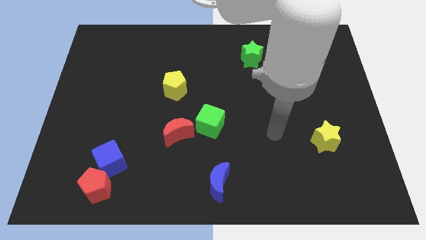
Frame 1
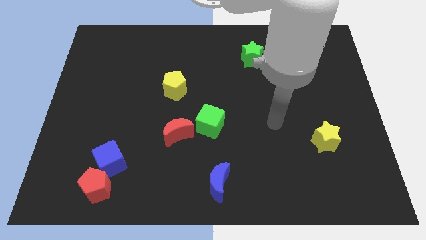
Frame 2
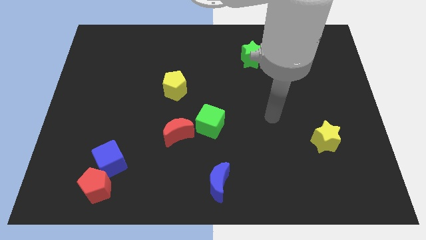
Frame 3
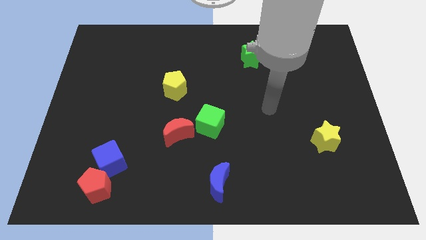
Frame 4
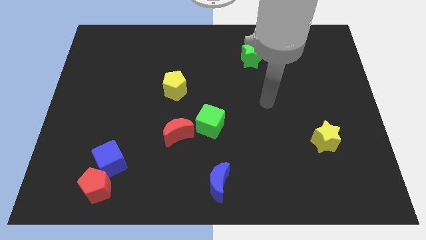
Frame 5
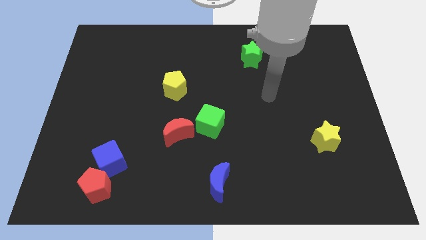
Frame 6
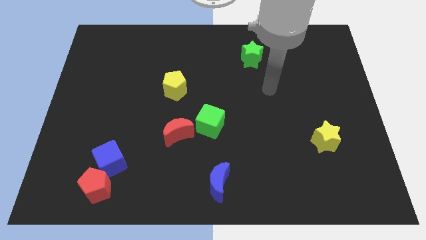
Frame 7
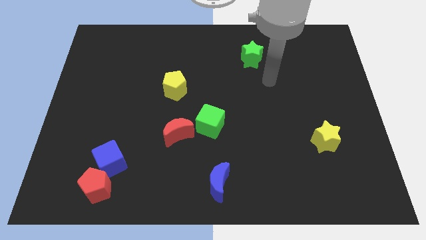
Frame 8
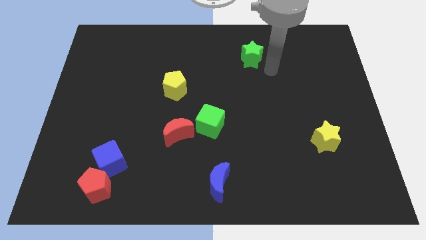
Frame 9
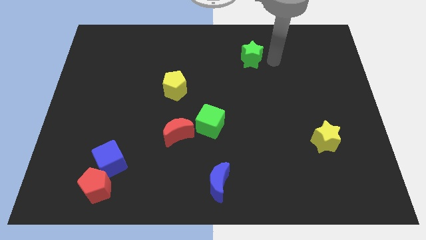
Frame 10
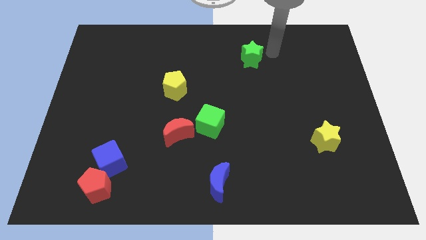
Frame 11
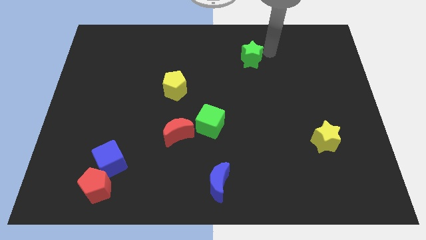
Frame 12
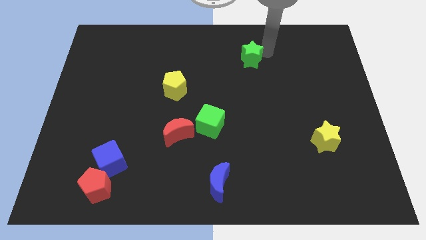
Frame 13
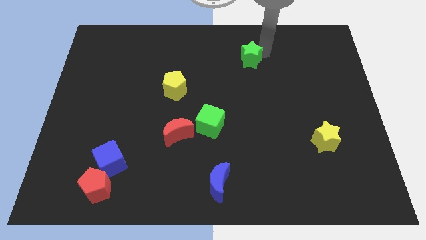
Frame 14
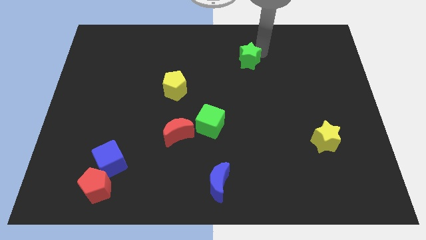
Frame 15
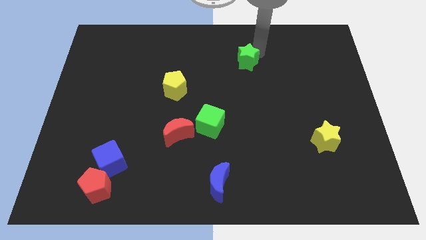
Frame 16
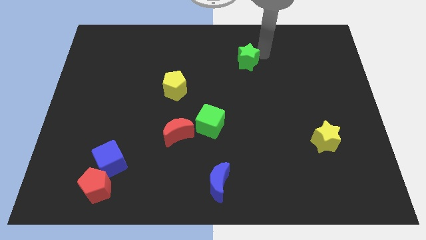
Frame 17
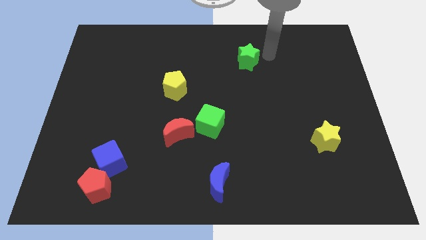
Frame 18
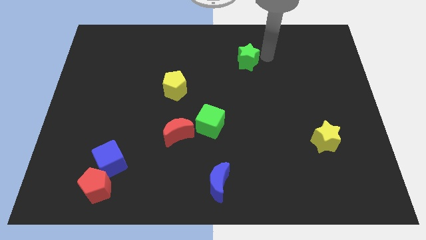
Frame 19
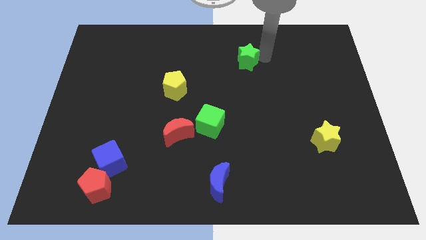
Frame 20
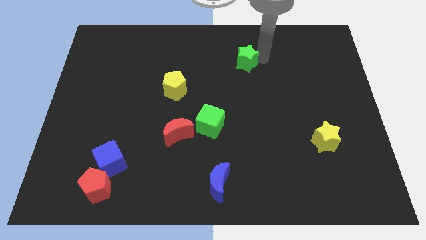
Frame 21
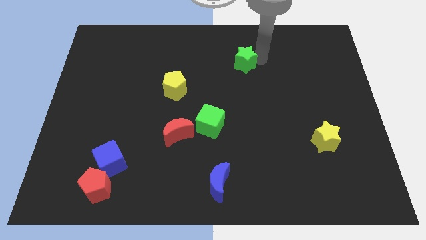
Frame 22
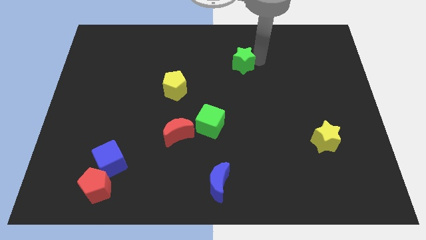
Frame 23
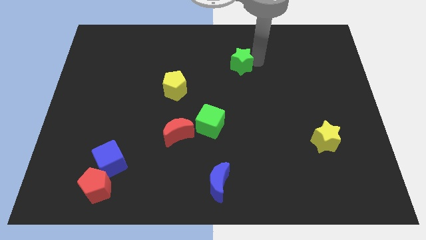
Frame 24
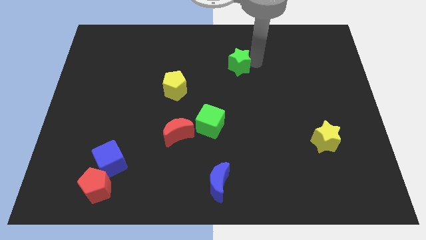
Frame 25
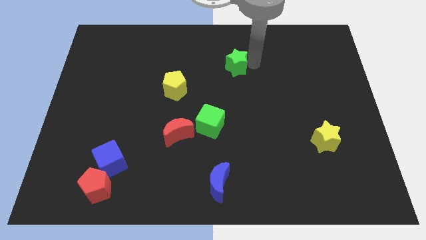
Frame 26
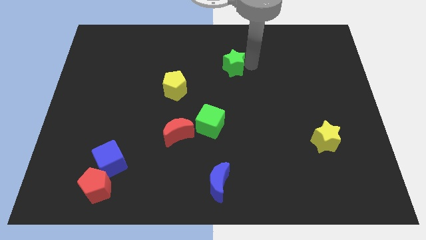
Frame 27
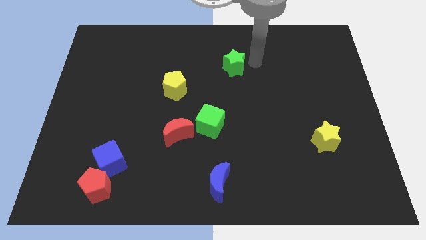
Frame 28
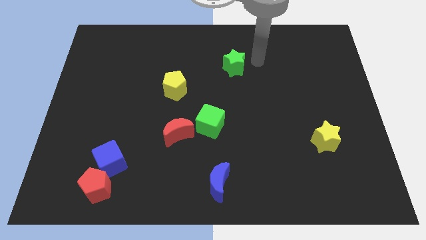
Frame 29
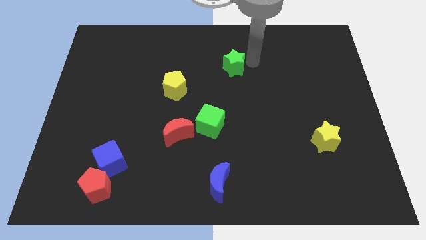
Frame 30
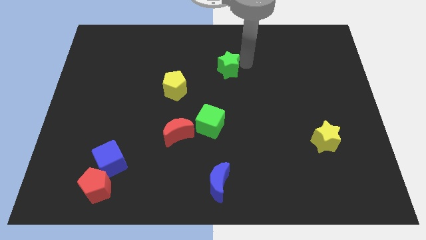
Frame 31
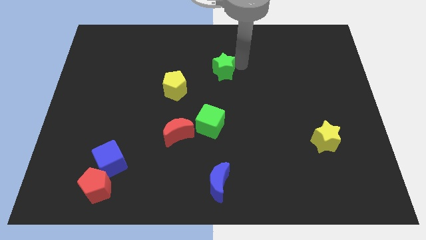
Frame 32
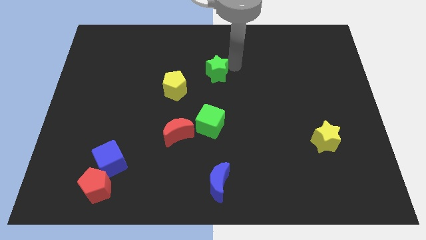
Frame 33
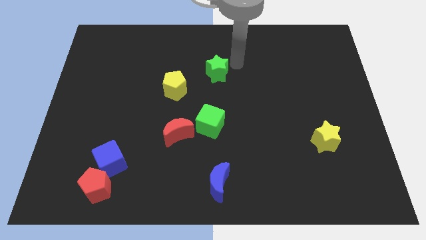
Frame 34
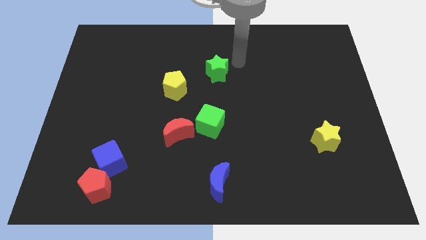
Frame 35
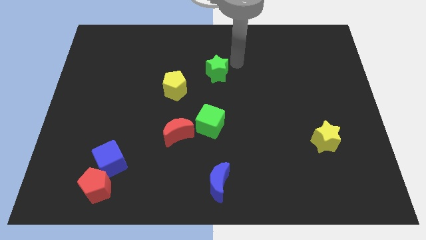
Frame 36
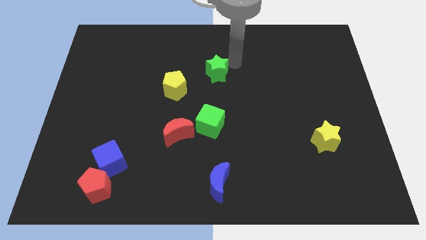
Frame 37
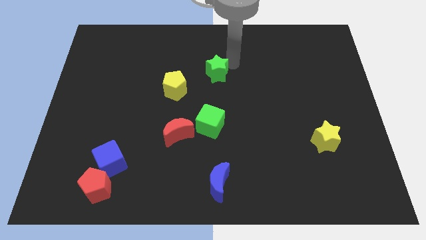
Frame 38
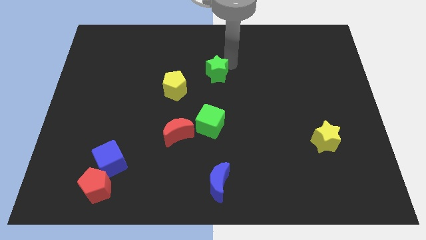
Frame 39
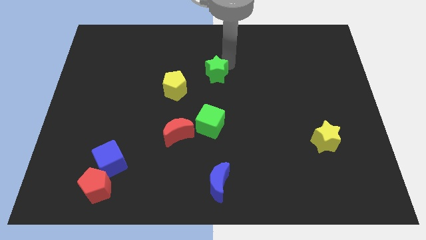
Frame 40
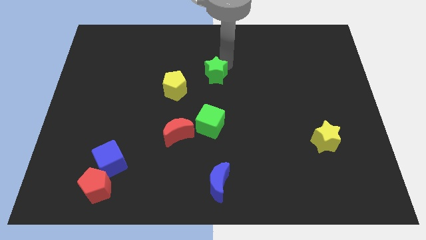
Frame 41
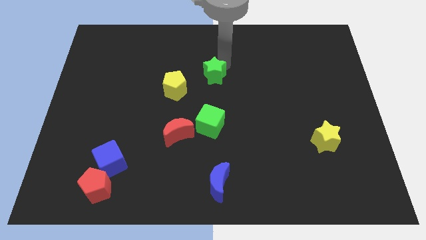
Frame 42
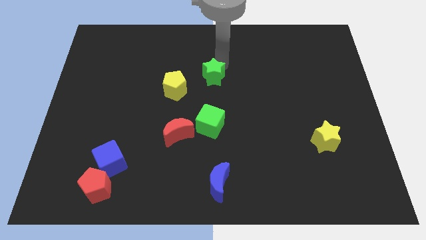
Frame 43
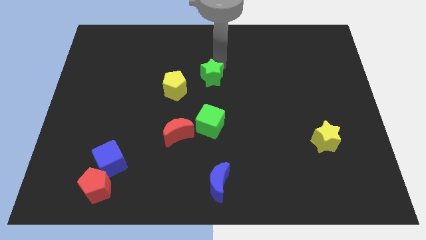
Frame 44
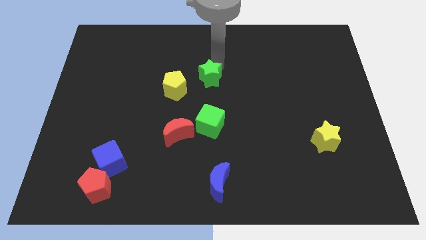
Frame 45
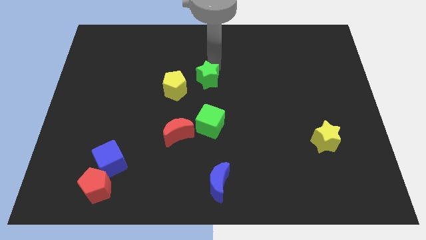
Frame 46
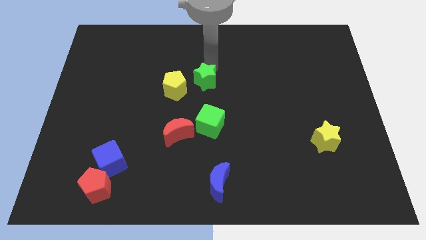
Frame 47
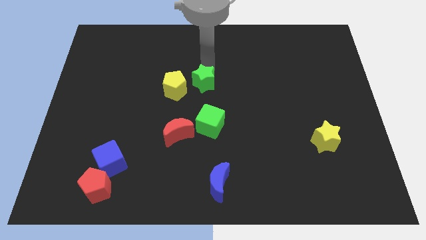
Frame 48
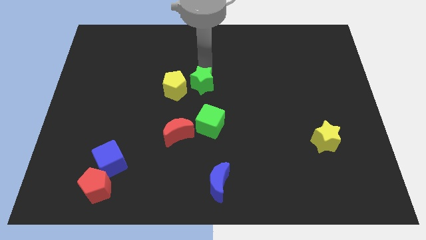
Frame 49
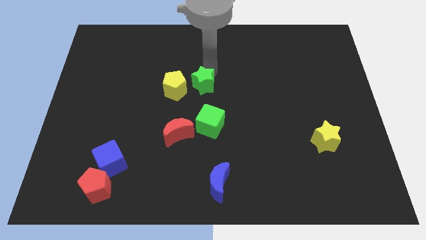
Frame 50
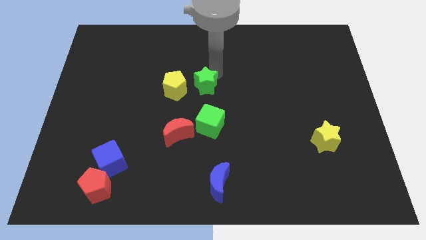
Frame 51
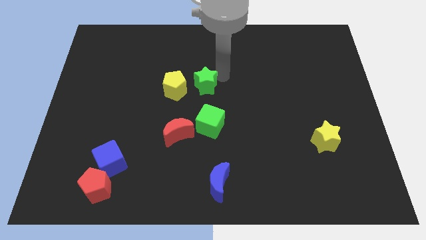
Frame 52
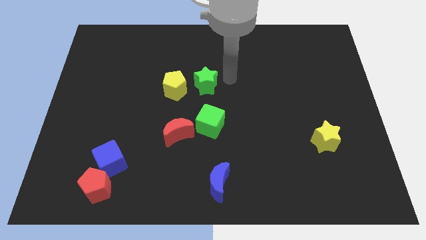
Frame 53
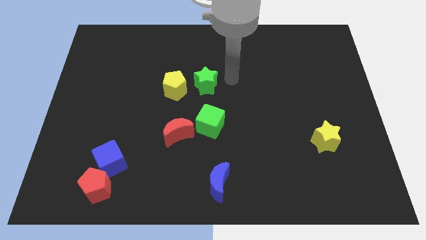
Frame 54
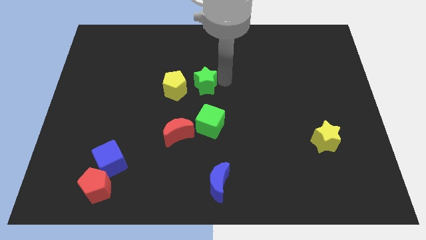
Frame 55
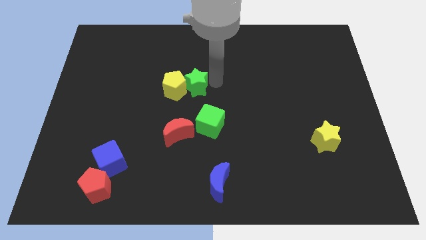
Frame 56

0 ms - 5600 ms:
slide the green star towards the yellow pentagon

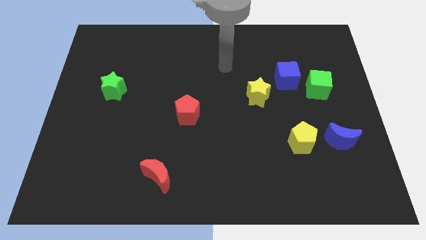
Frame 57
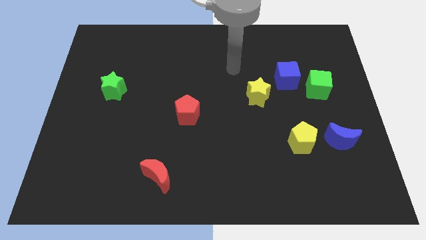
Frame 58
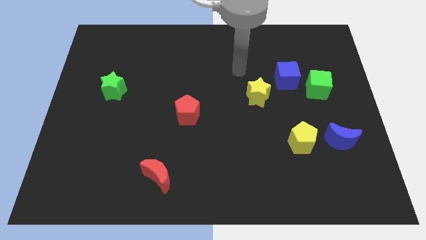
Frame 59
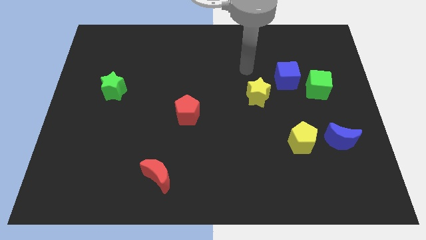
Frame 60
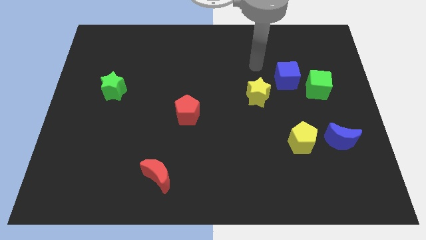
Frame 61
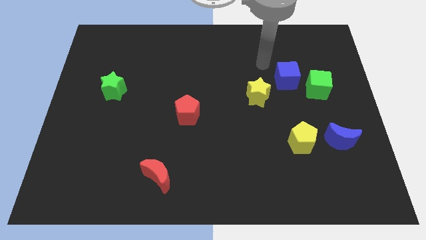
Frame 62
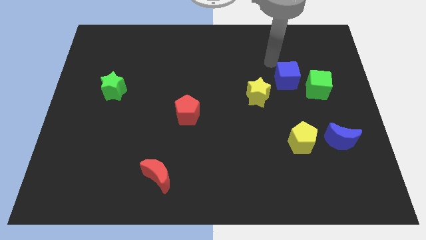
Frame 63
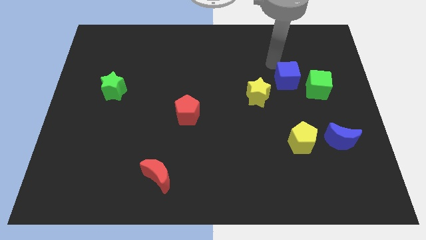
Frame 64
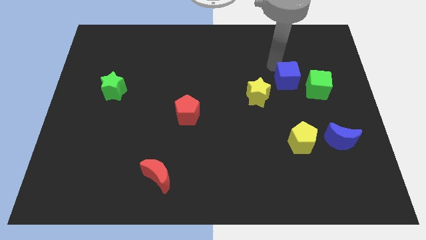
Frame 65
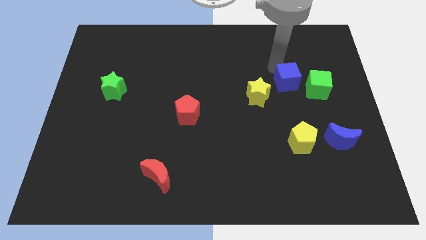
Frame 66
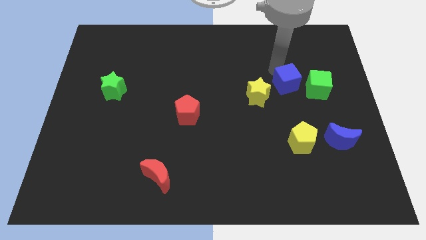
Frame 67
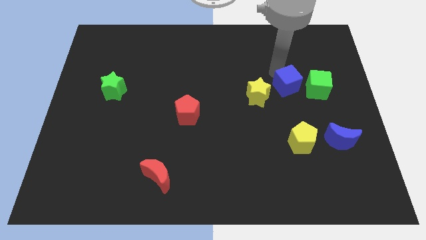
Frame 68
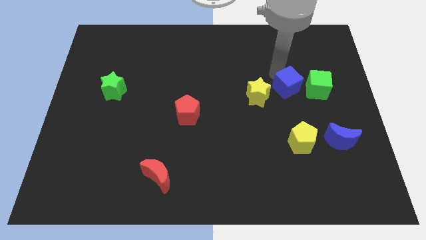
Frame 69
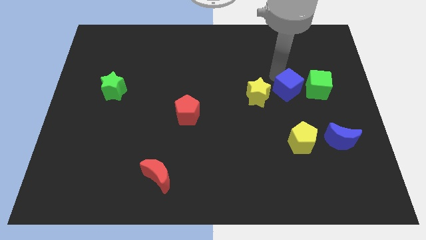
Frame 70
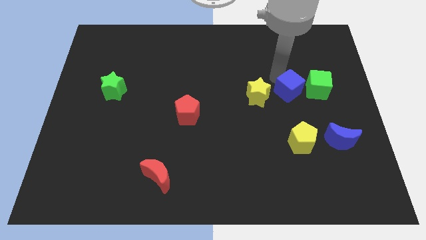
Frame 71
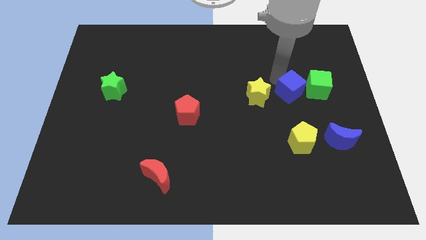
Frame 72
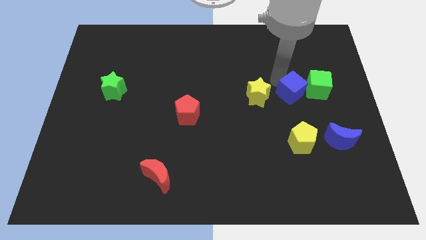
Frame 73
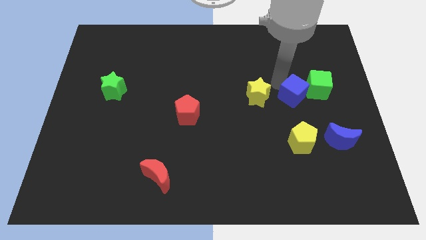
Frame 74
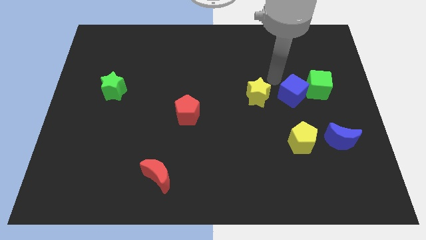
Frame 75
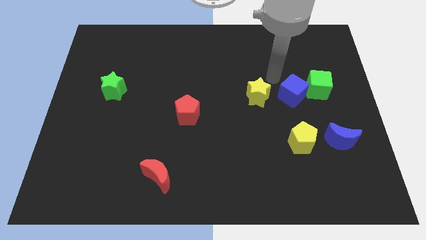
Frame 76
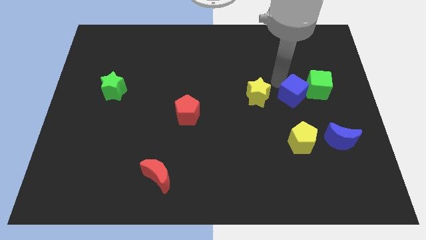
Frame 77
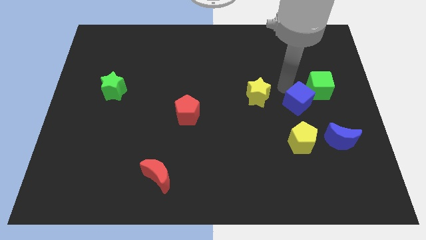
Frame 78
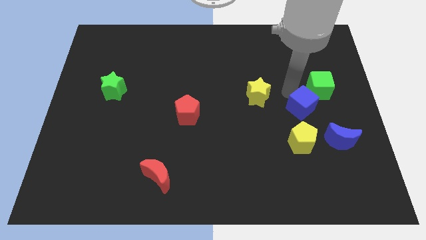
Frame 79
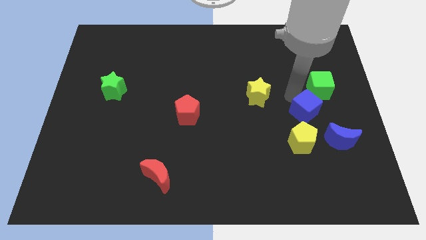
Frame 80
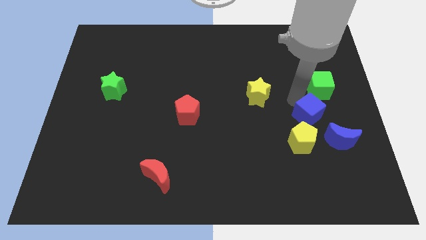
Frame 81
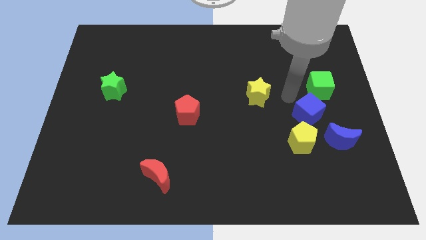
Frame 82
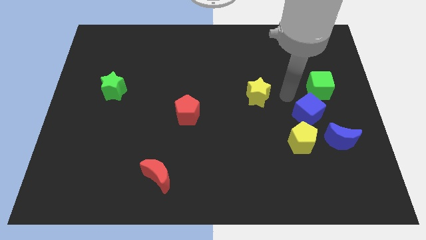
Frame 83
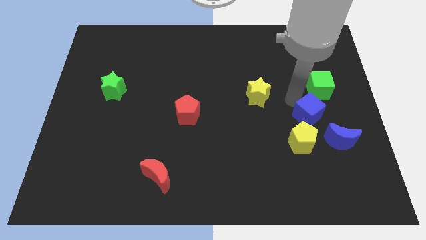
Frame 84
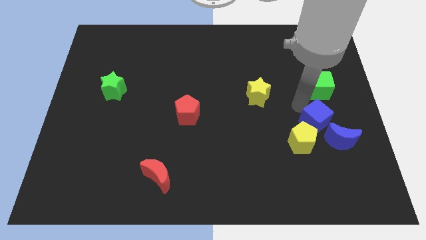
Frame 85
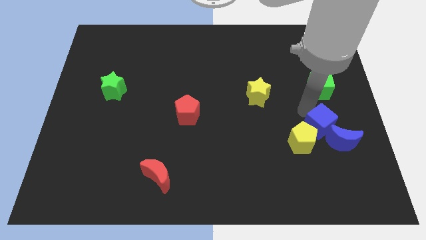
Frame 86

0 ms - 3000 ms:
push the blue cube to the blue moon
